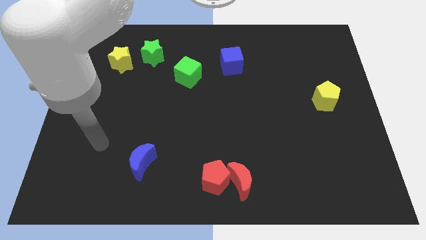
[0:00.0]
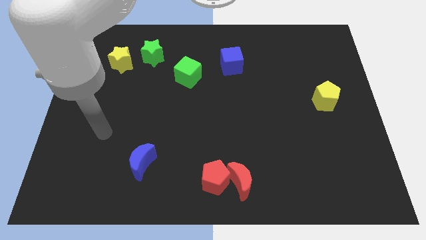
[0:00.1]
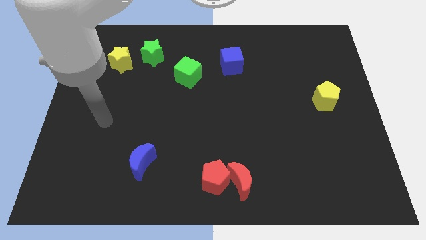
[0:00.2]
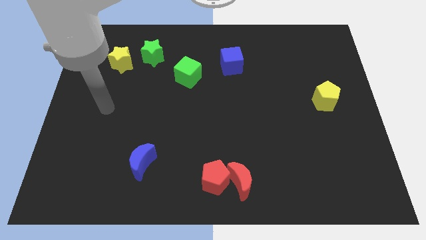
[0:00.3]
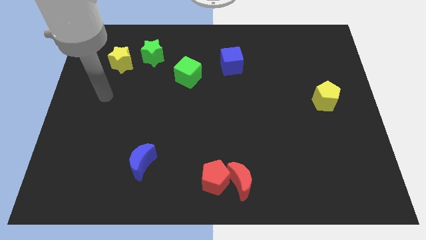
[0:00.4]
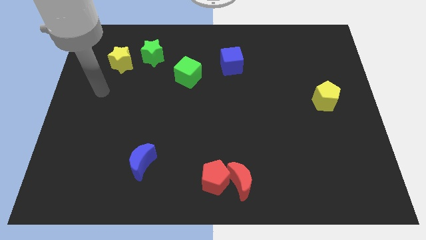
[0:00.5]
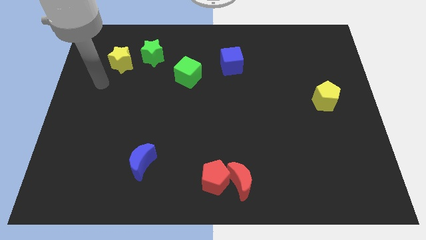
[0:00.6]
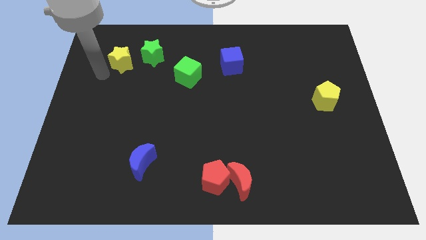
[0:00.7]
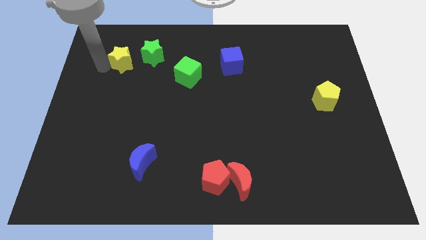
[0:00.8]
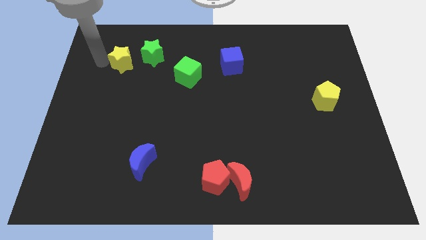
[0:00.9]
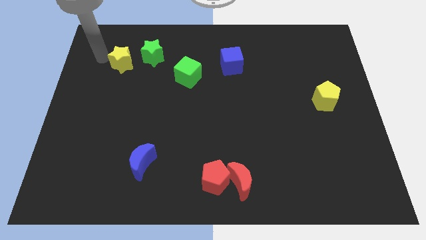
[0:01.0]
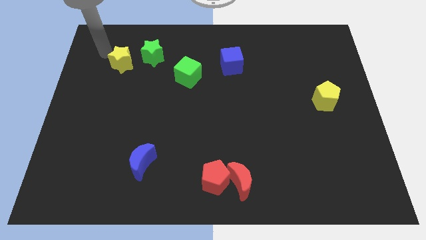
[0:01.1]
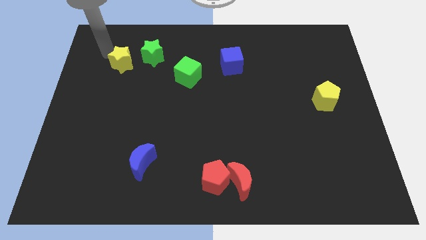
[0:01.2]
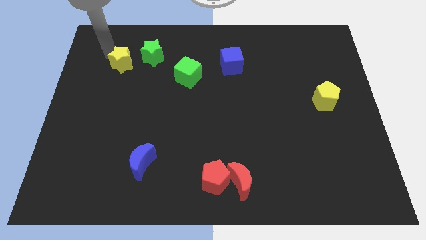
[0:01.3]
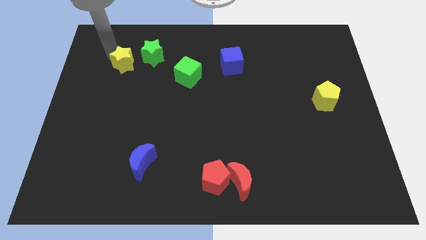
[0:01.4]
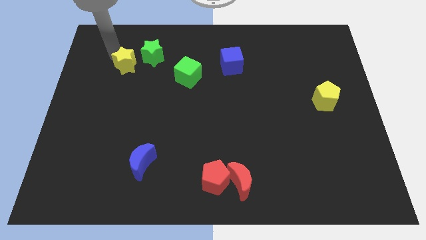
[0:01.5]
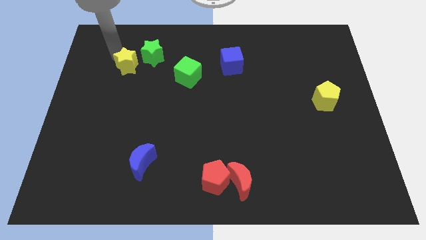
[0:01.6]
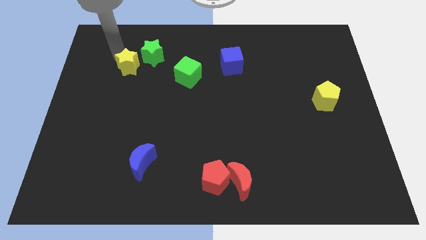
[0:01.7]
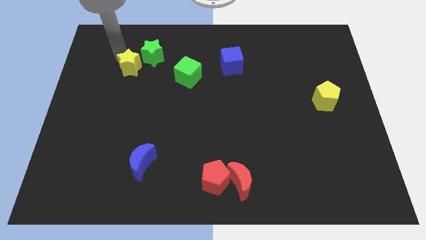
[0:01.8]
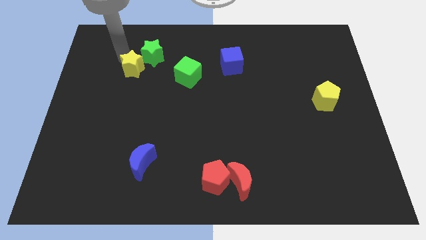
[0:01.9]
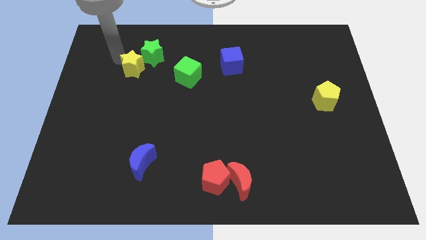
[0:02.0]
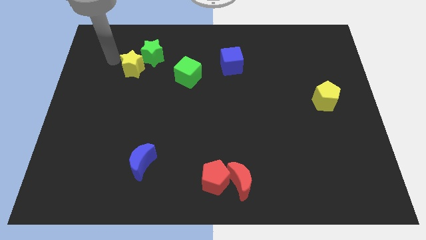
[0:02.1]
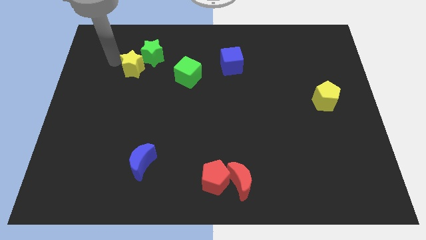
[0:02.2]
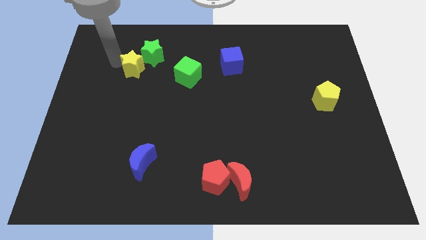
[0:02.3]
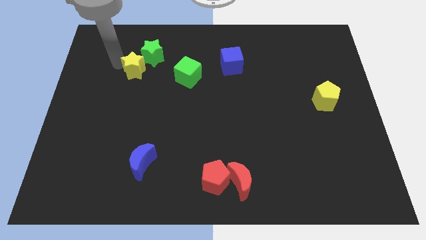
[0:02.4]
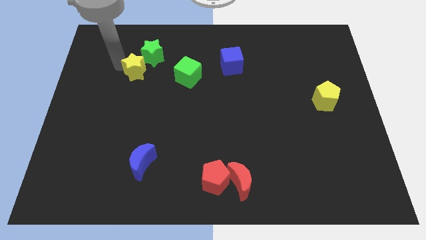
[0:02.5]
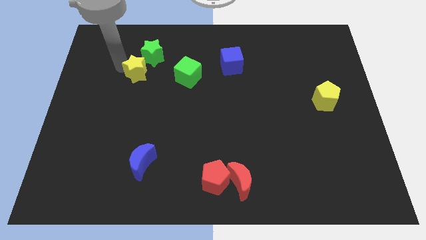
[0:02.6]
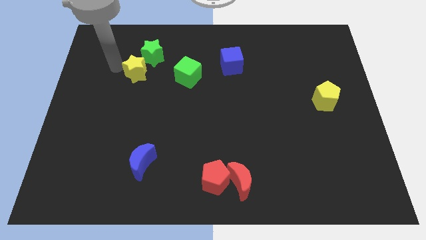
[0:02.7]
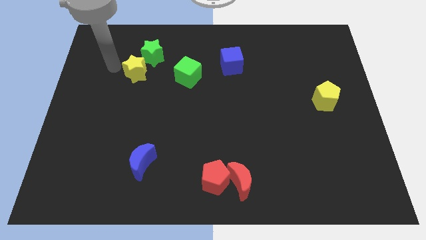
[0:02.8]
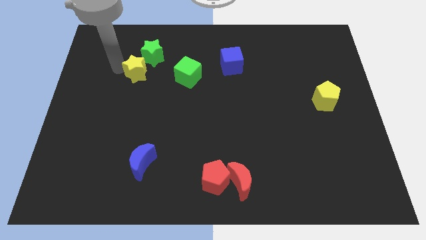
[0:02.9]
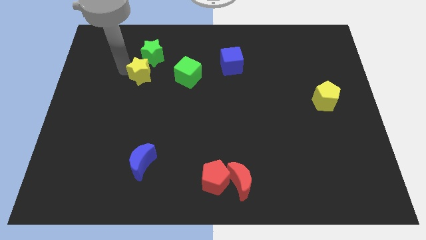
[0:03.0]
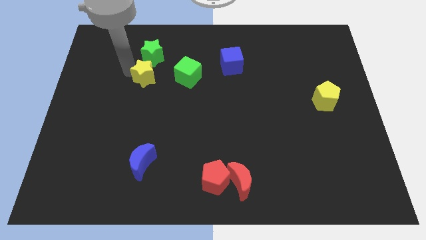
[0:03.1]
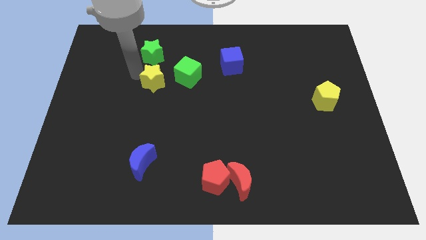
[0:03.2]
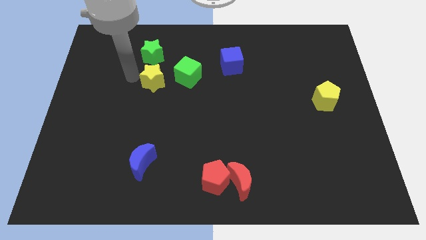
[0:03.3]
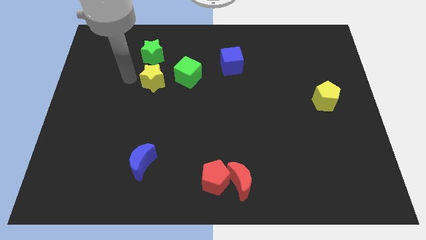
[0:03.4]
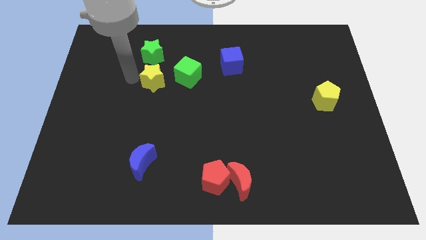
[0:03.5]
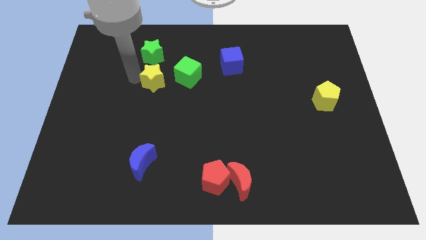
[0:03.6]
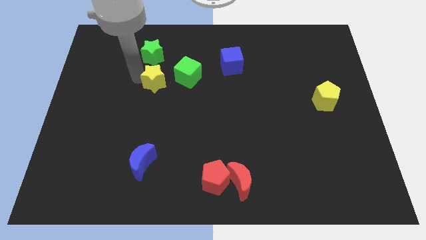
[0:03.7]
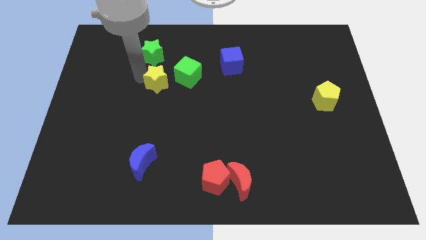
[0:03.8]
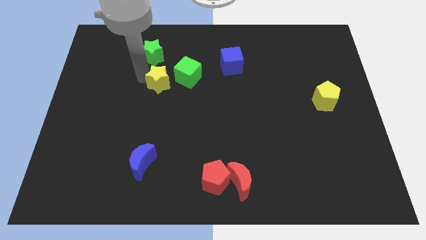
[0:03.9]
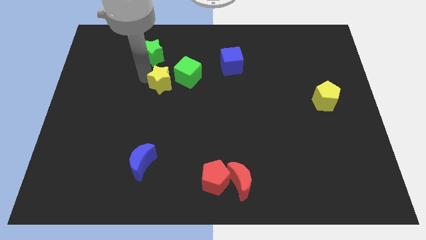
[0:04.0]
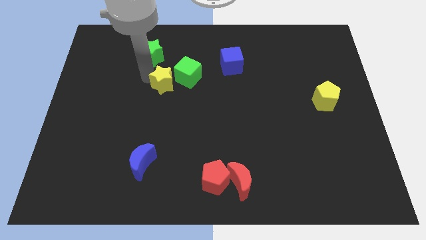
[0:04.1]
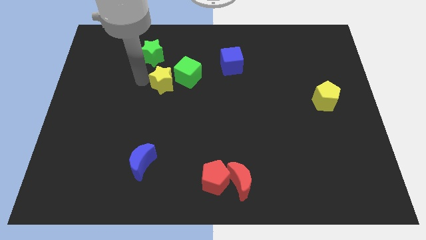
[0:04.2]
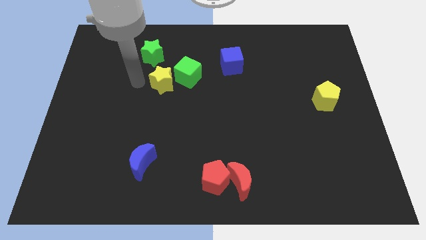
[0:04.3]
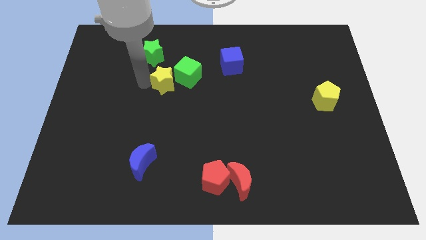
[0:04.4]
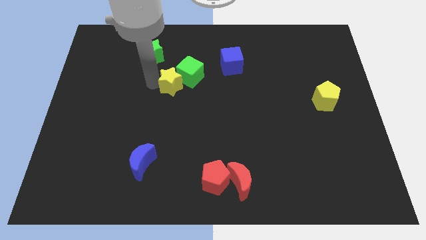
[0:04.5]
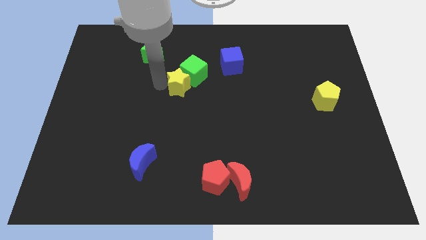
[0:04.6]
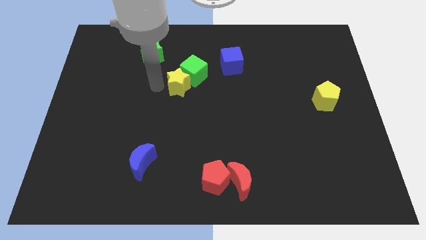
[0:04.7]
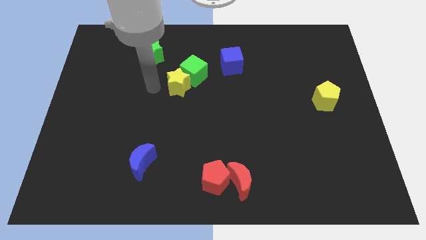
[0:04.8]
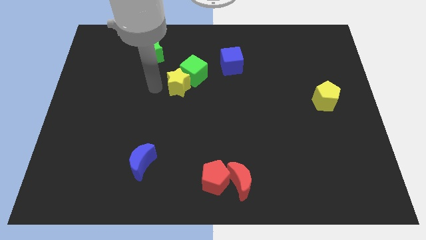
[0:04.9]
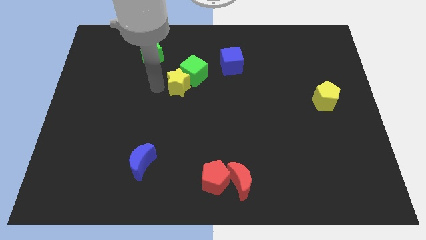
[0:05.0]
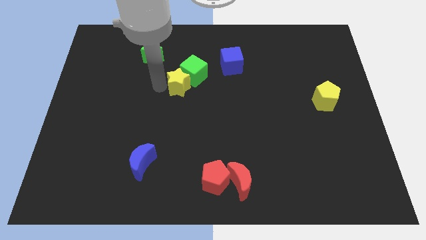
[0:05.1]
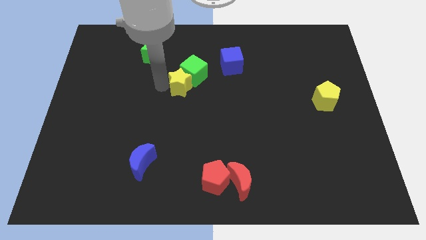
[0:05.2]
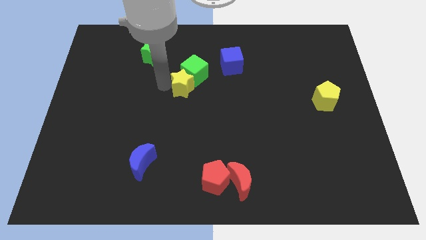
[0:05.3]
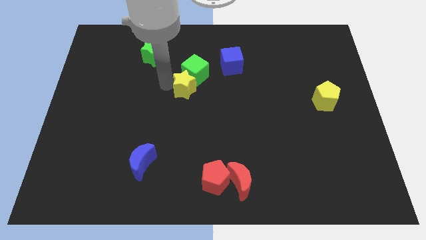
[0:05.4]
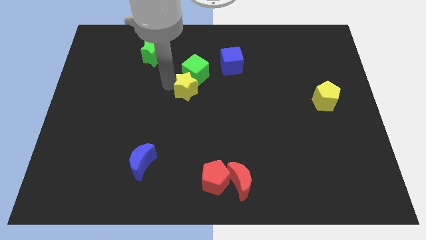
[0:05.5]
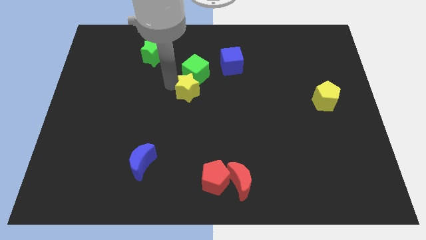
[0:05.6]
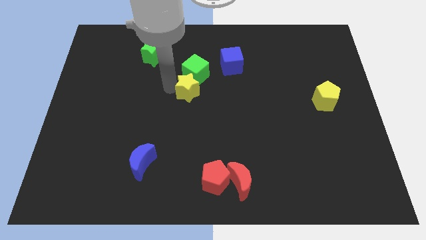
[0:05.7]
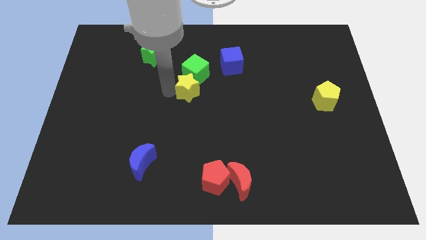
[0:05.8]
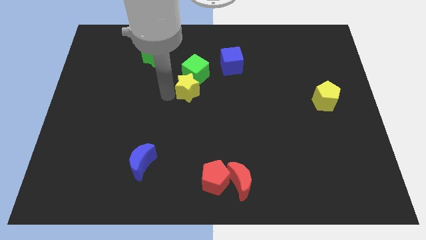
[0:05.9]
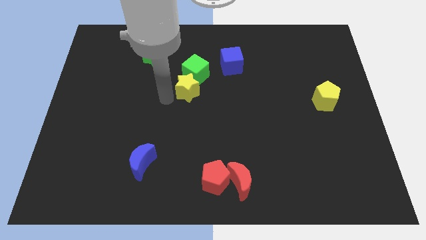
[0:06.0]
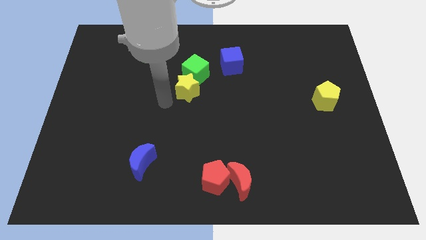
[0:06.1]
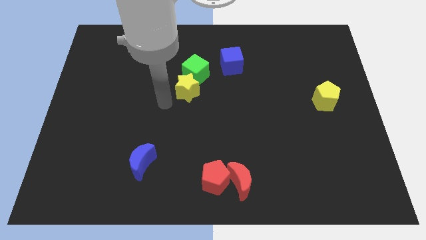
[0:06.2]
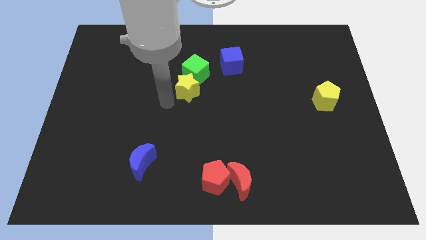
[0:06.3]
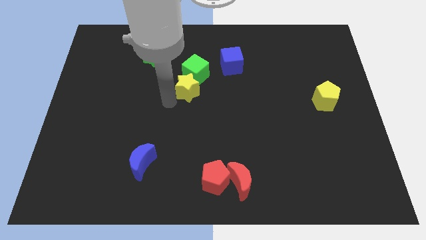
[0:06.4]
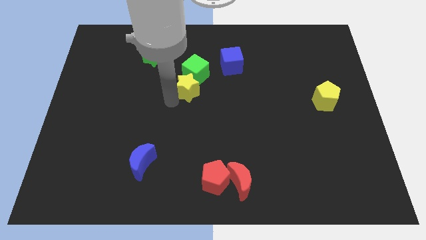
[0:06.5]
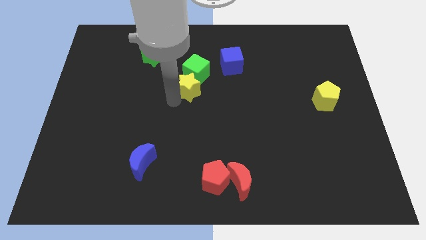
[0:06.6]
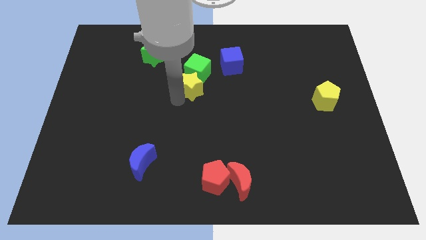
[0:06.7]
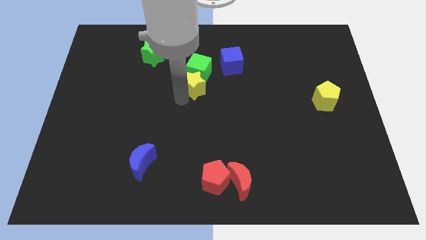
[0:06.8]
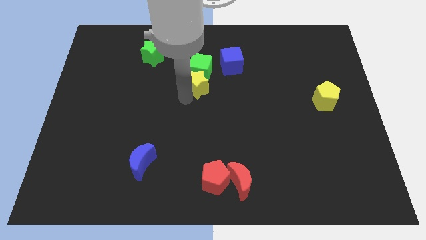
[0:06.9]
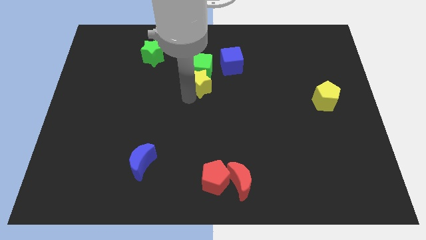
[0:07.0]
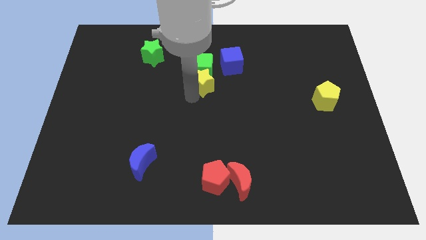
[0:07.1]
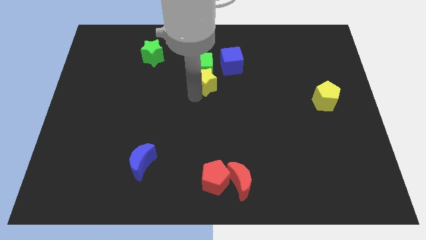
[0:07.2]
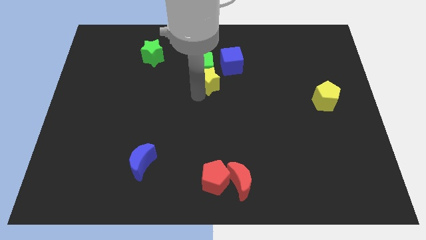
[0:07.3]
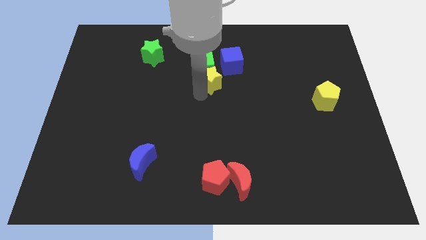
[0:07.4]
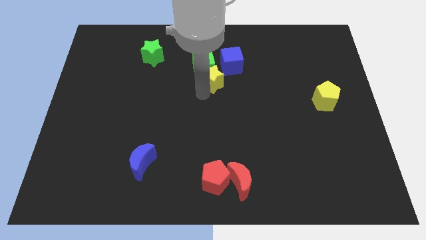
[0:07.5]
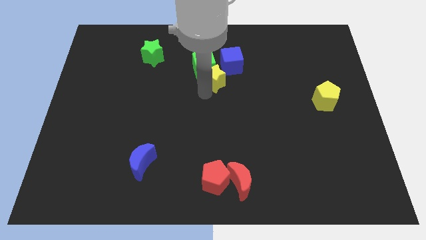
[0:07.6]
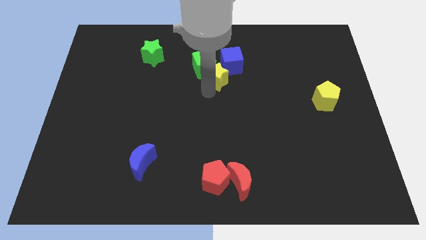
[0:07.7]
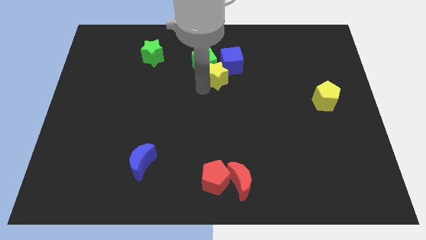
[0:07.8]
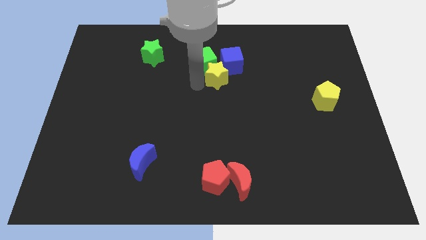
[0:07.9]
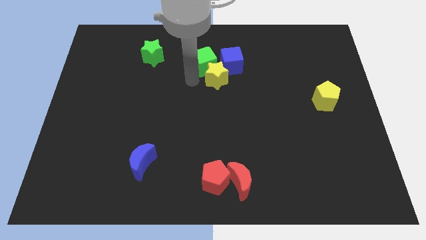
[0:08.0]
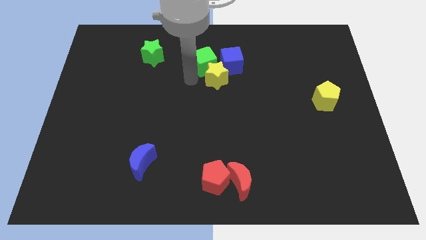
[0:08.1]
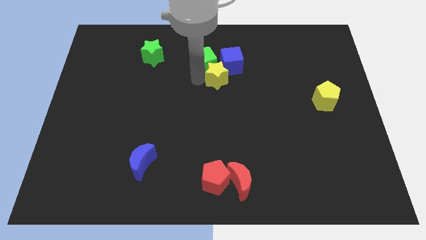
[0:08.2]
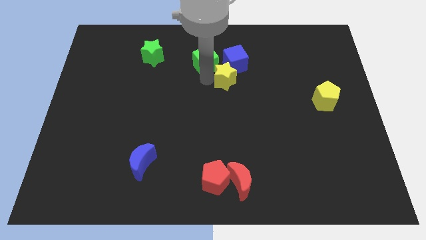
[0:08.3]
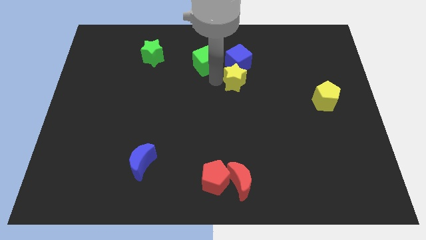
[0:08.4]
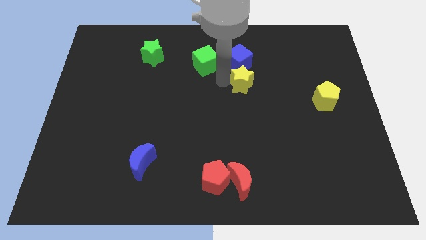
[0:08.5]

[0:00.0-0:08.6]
slide the yellow star to the bottom right of the blue cube
